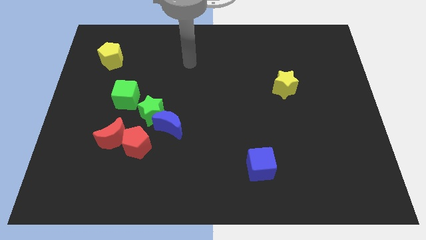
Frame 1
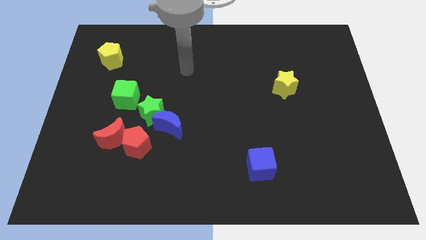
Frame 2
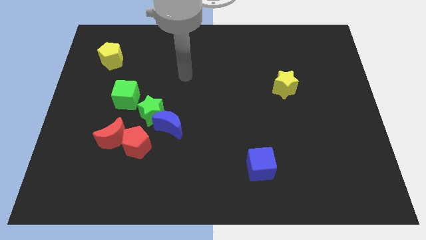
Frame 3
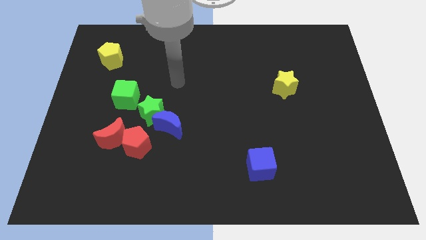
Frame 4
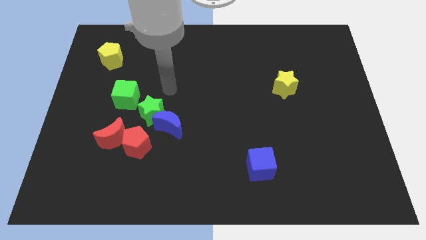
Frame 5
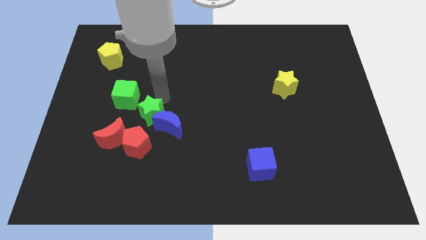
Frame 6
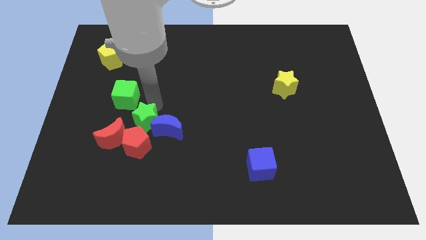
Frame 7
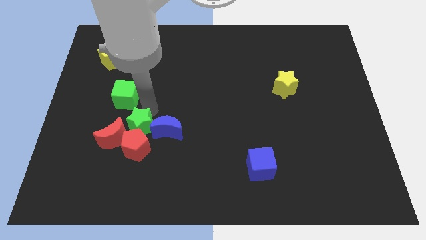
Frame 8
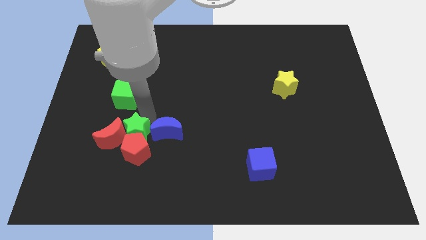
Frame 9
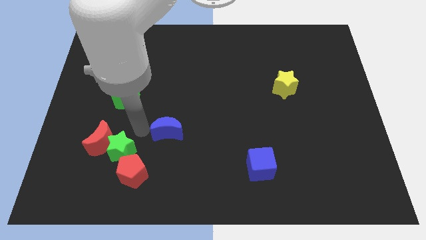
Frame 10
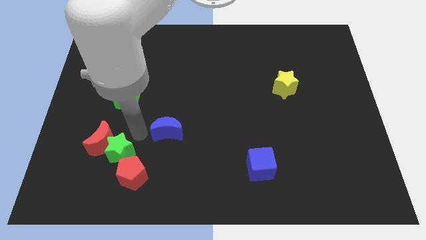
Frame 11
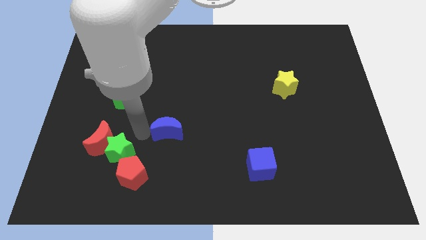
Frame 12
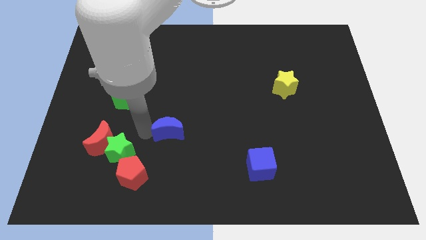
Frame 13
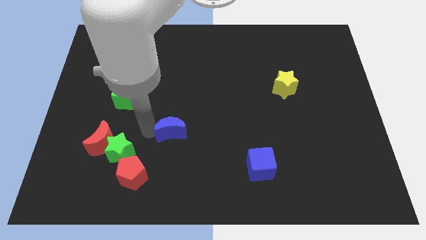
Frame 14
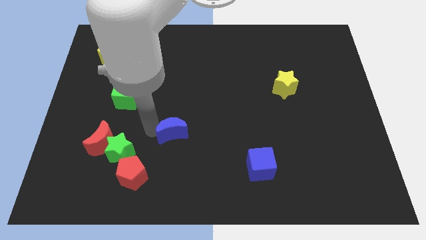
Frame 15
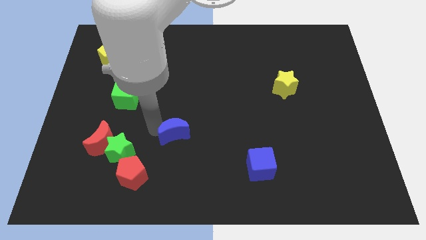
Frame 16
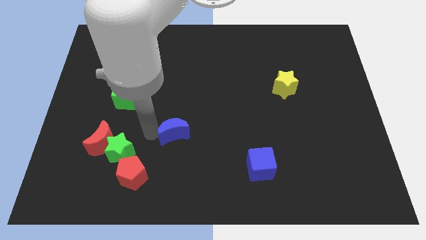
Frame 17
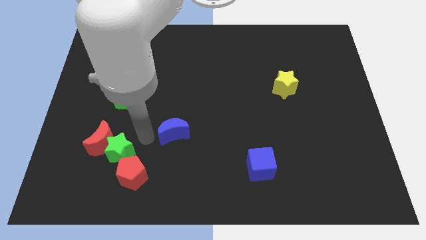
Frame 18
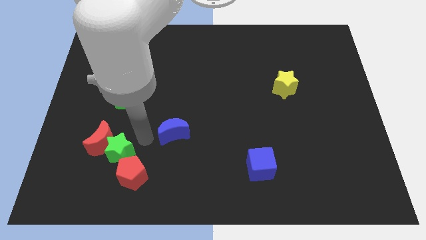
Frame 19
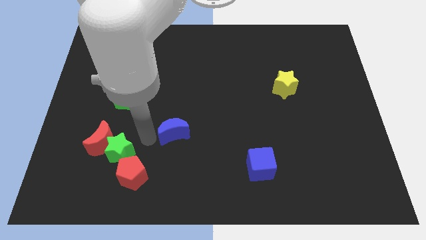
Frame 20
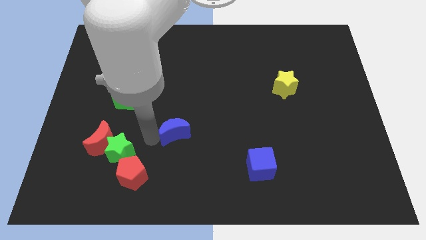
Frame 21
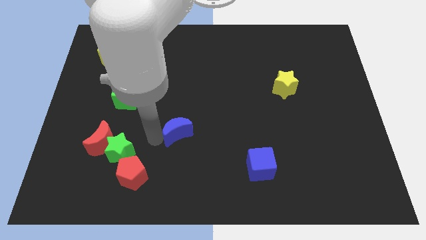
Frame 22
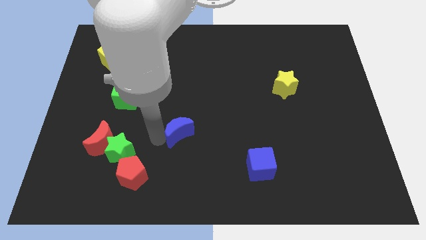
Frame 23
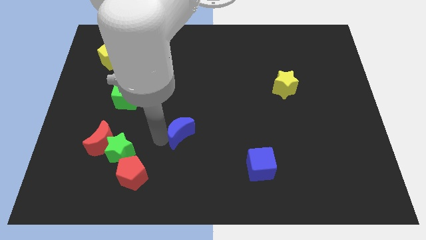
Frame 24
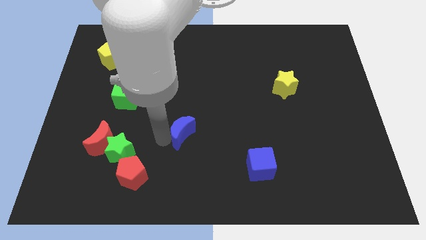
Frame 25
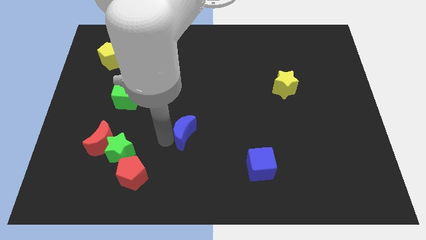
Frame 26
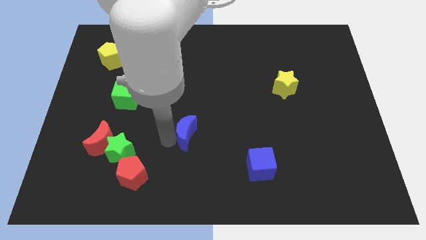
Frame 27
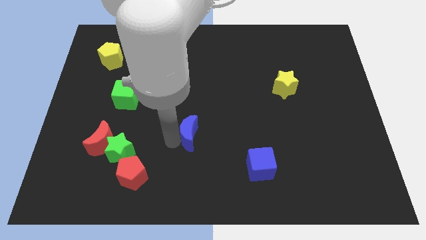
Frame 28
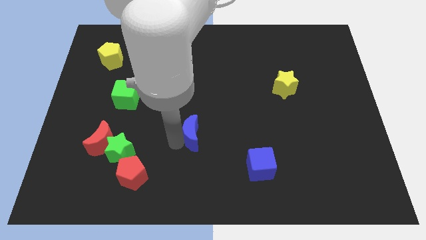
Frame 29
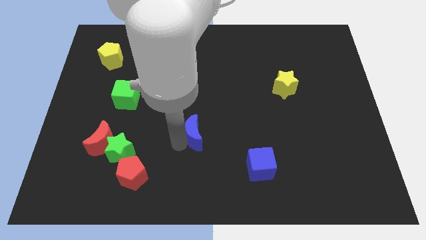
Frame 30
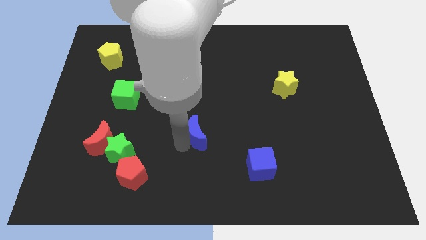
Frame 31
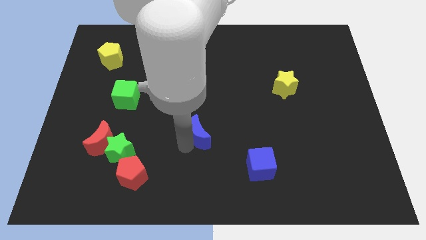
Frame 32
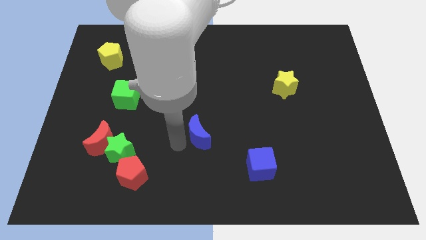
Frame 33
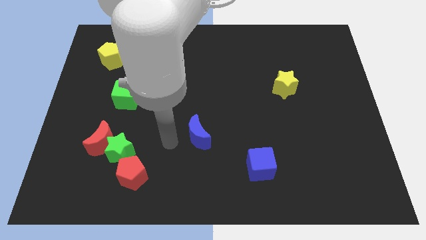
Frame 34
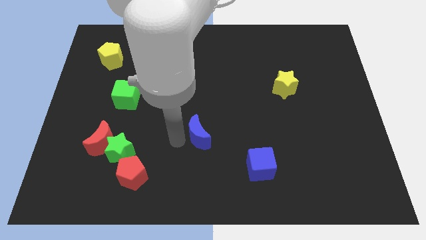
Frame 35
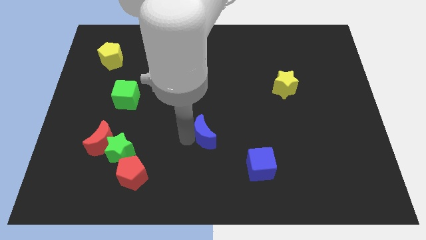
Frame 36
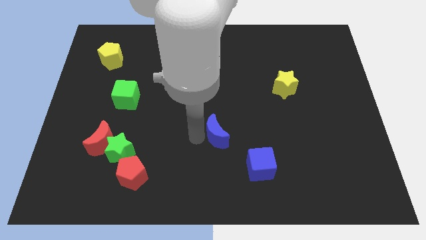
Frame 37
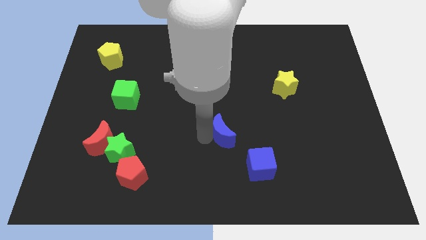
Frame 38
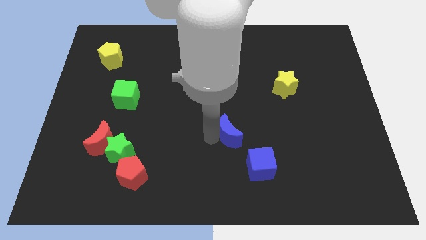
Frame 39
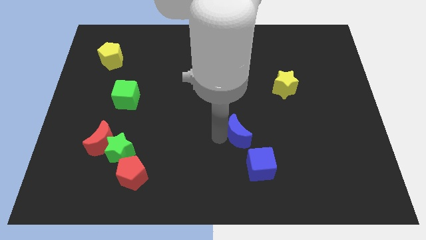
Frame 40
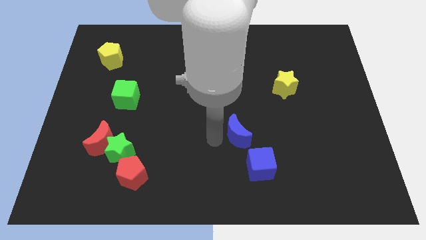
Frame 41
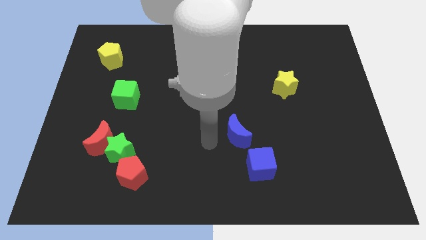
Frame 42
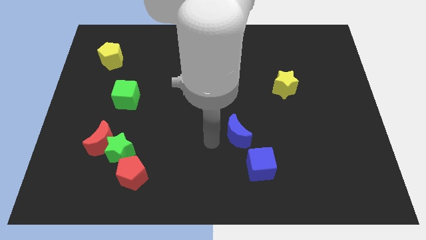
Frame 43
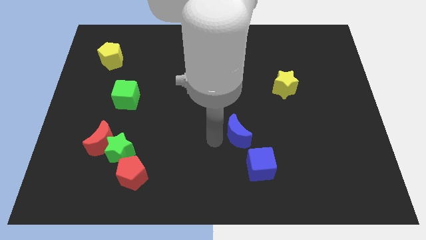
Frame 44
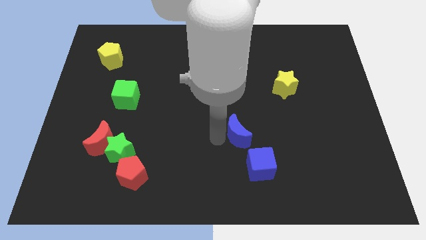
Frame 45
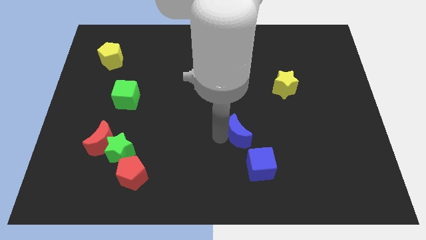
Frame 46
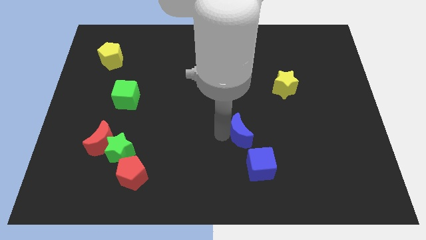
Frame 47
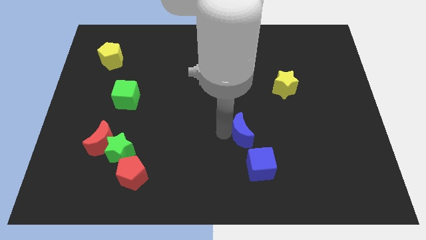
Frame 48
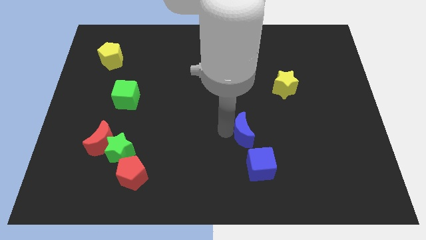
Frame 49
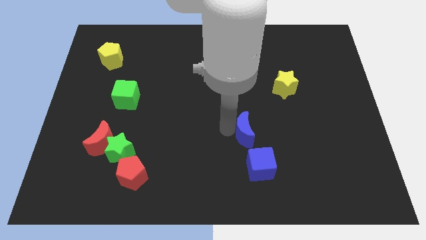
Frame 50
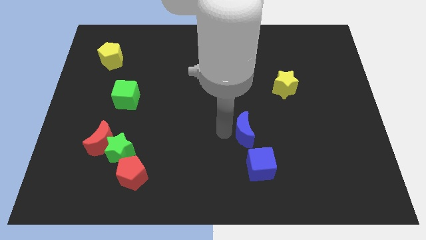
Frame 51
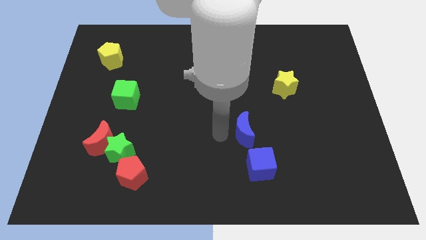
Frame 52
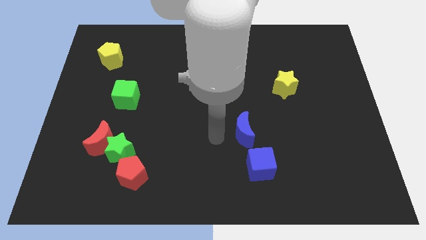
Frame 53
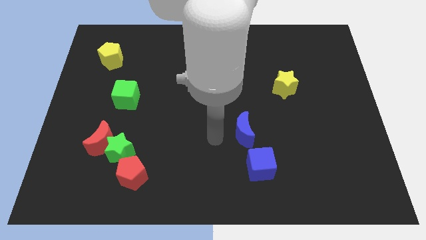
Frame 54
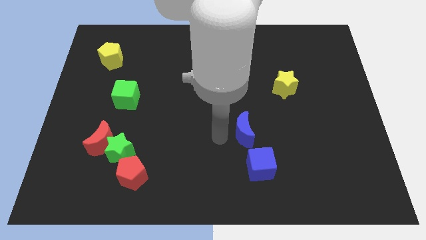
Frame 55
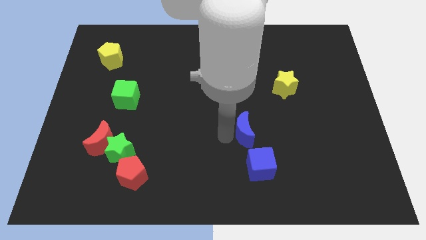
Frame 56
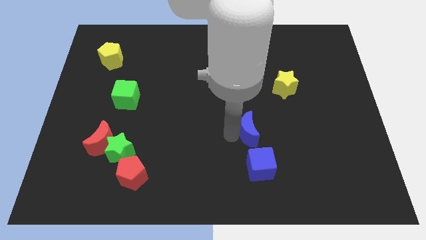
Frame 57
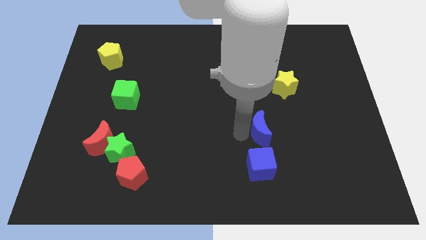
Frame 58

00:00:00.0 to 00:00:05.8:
push the blue moon right

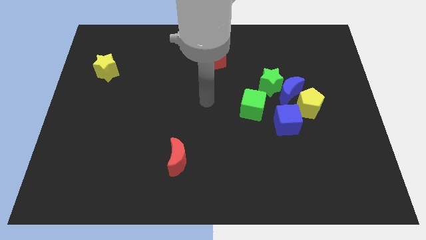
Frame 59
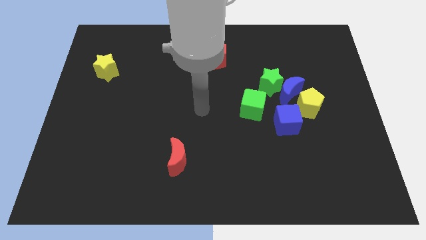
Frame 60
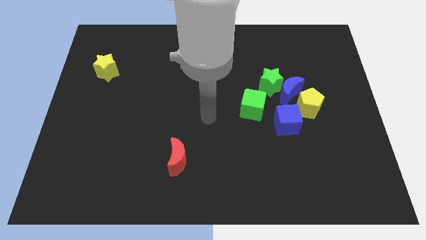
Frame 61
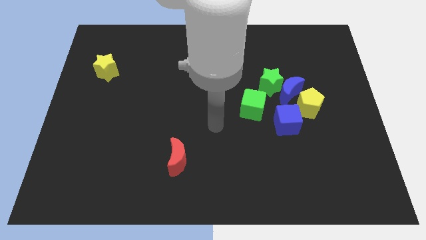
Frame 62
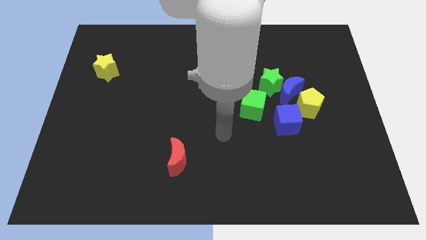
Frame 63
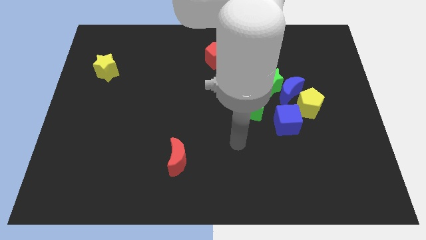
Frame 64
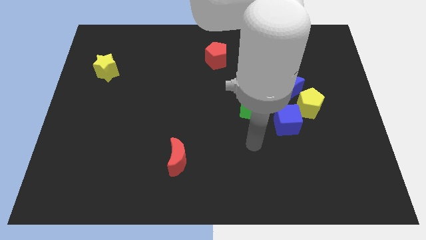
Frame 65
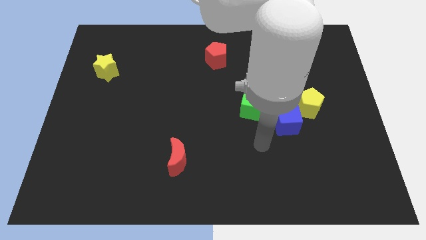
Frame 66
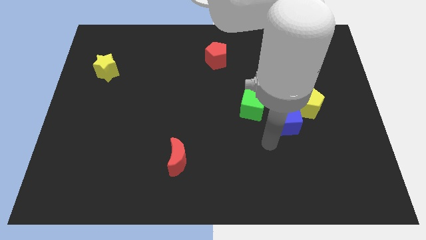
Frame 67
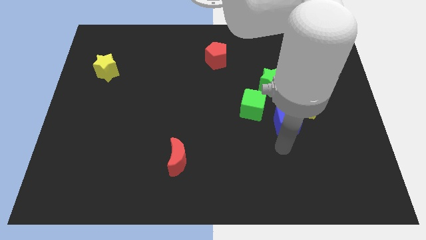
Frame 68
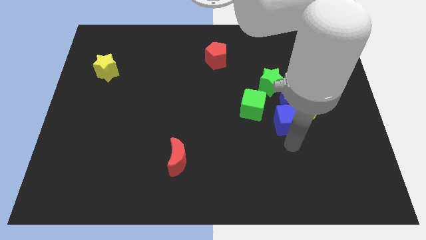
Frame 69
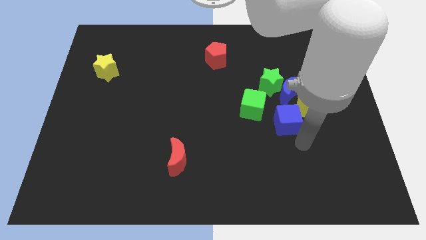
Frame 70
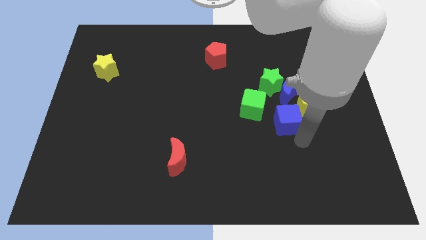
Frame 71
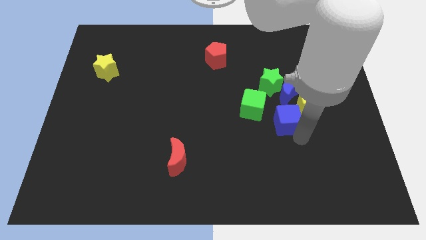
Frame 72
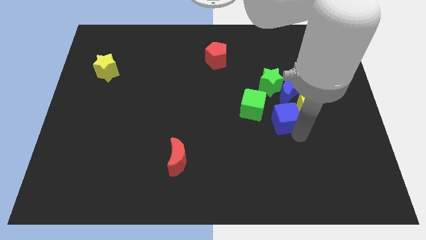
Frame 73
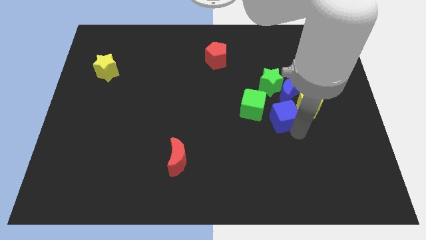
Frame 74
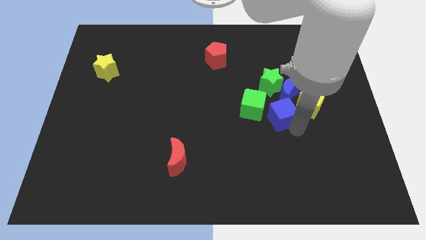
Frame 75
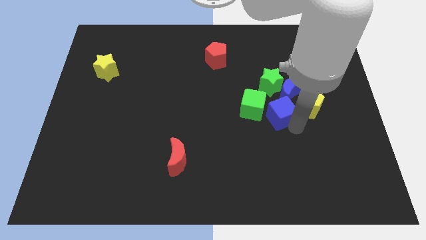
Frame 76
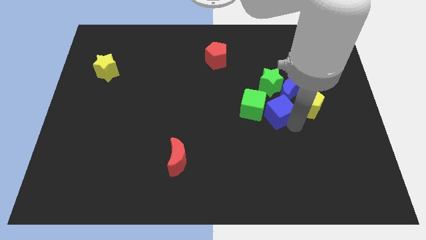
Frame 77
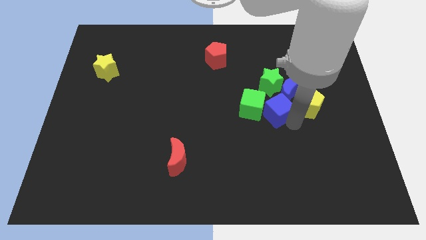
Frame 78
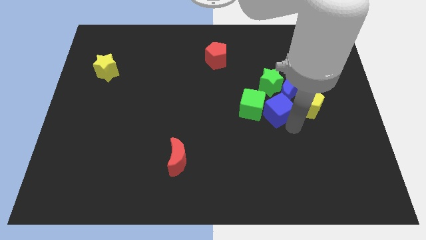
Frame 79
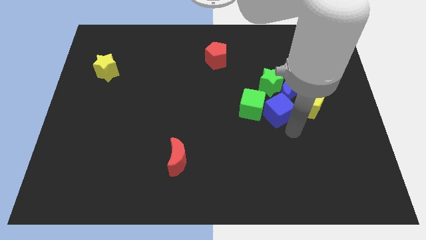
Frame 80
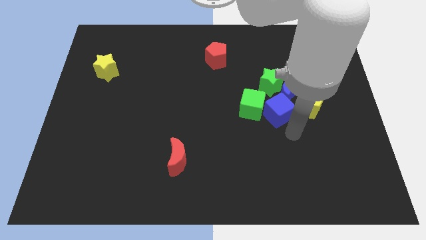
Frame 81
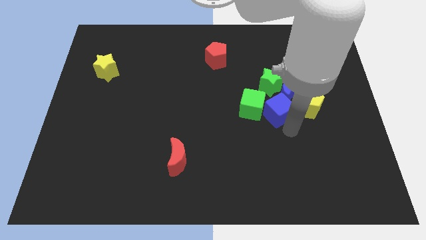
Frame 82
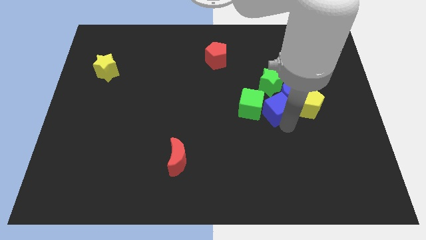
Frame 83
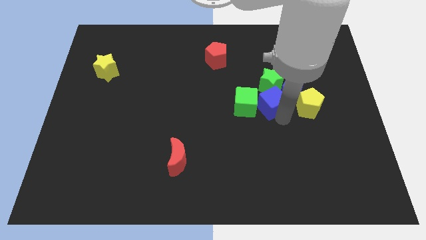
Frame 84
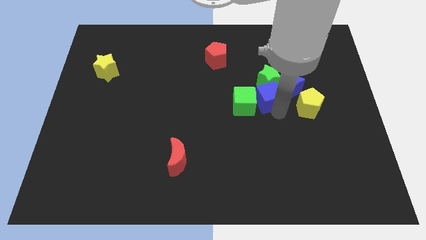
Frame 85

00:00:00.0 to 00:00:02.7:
push the blue cube up and left diagonally a bit
